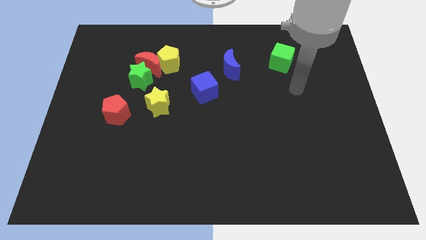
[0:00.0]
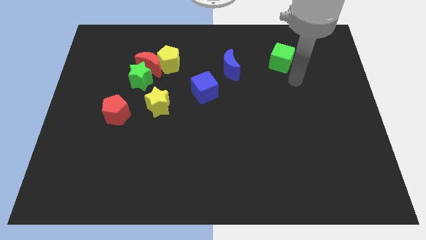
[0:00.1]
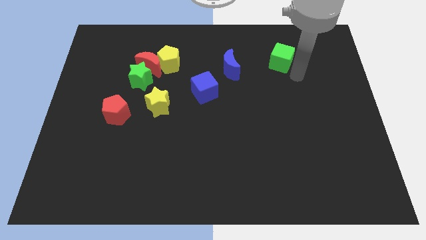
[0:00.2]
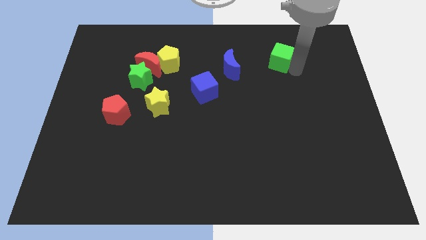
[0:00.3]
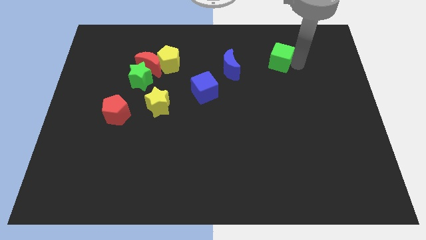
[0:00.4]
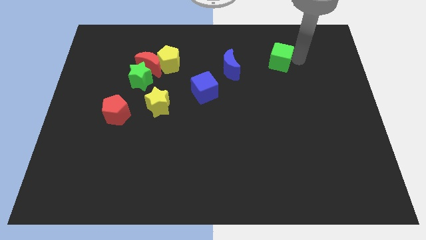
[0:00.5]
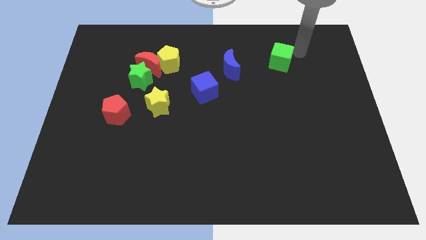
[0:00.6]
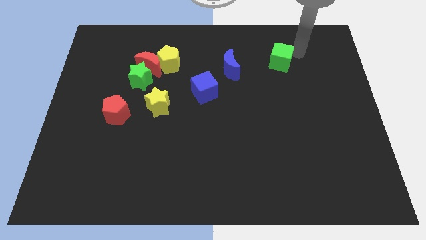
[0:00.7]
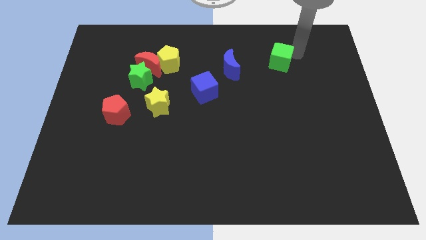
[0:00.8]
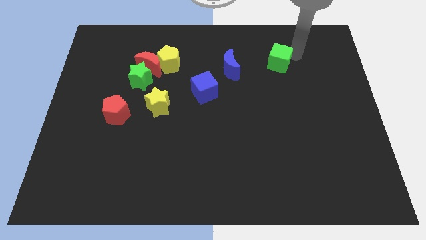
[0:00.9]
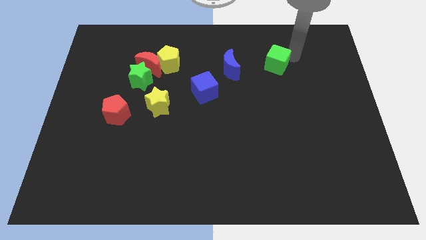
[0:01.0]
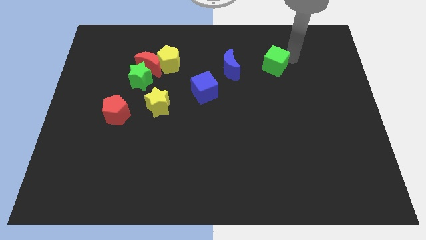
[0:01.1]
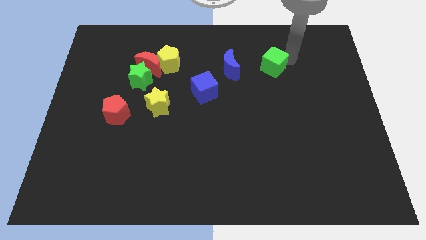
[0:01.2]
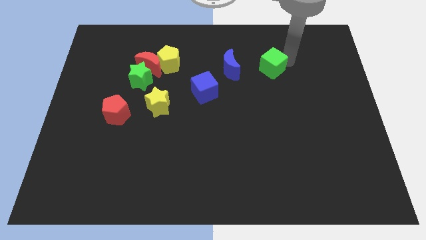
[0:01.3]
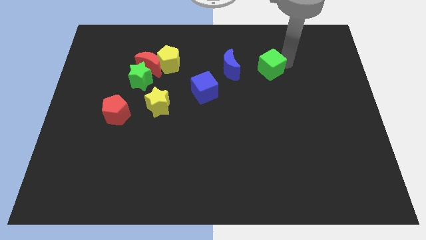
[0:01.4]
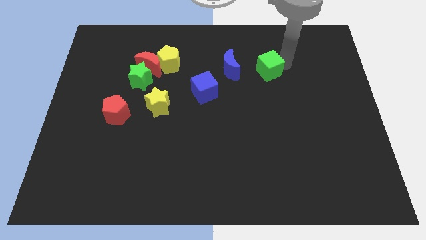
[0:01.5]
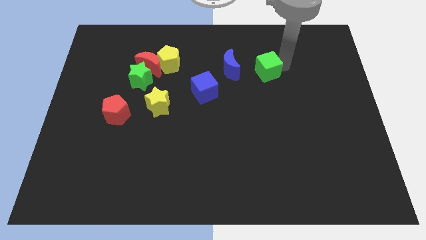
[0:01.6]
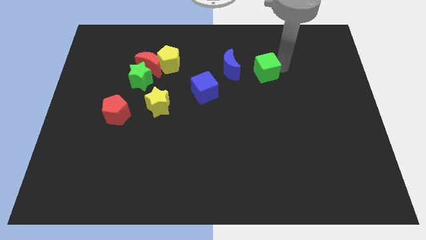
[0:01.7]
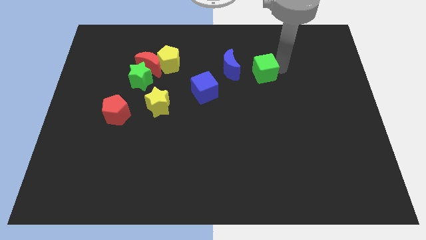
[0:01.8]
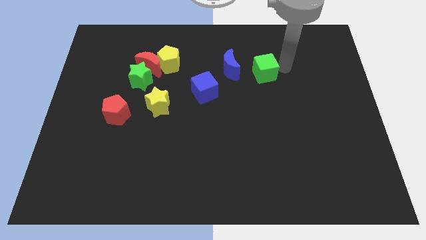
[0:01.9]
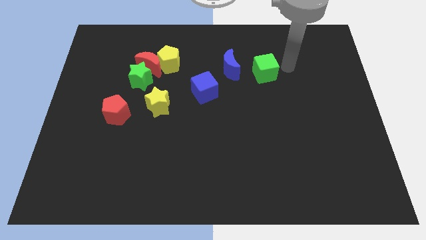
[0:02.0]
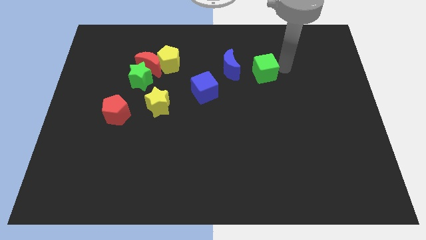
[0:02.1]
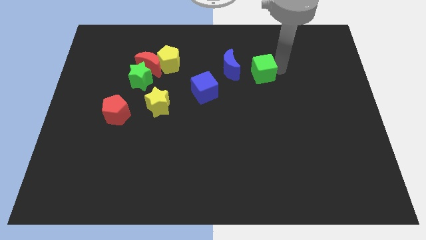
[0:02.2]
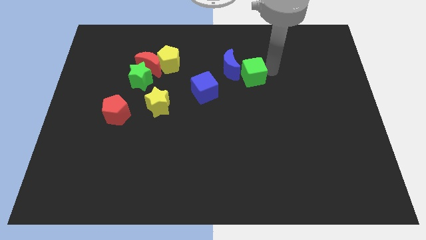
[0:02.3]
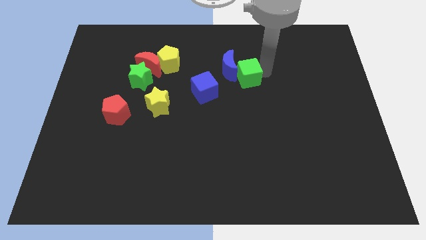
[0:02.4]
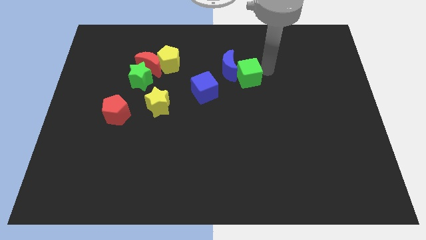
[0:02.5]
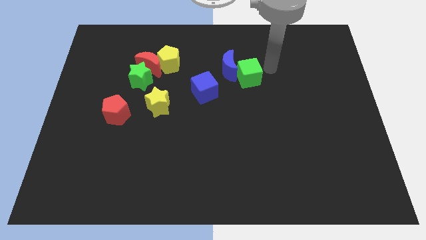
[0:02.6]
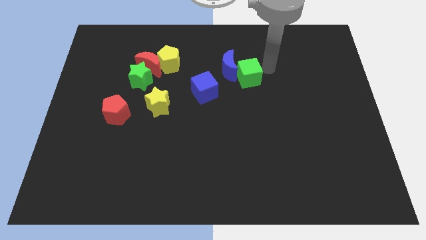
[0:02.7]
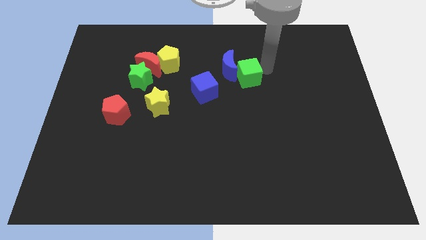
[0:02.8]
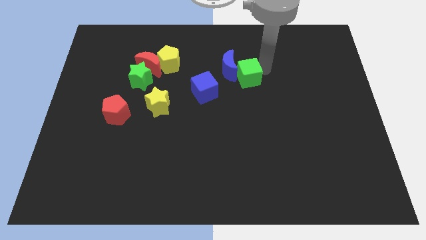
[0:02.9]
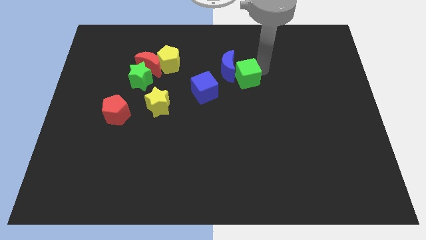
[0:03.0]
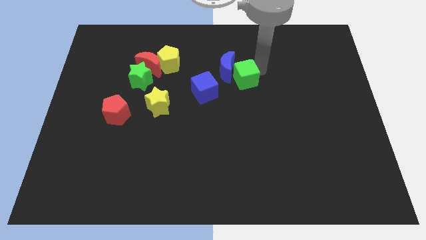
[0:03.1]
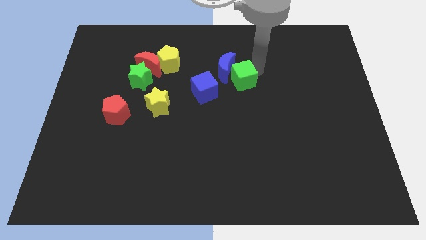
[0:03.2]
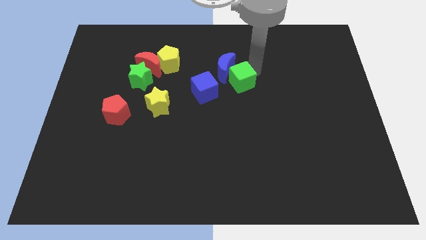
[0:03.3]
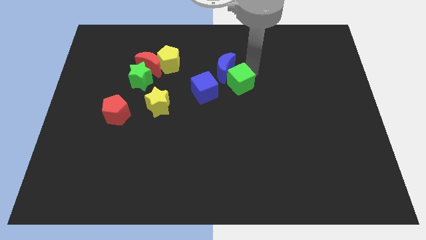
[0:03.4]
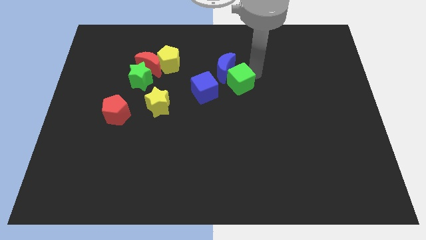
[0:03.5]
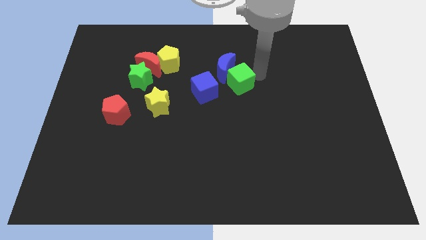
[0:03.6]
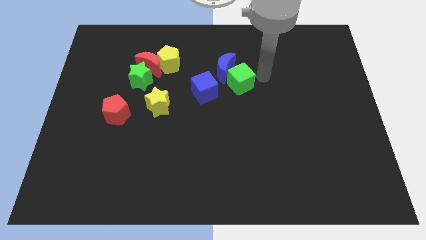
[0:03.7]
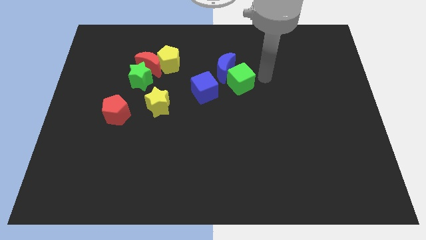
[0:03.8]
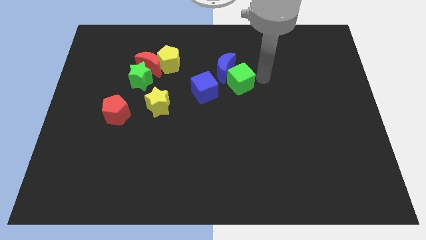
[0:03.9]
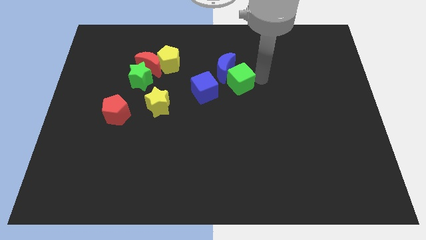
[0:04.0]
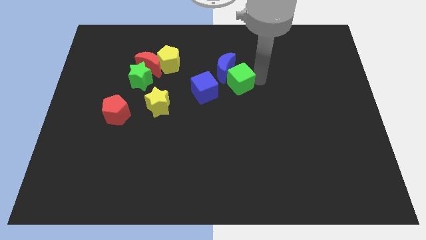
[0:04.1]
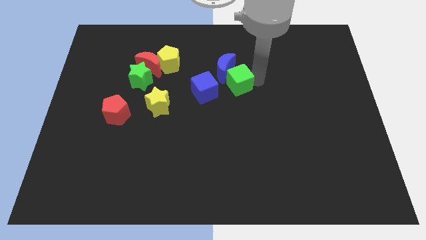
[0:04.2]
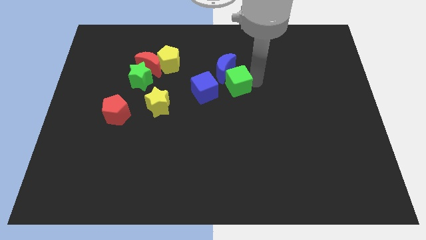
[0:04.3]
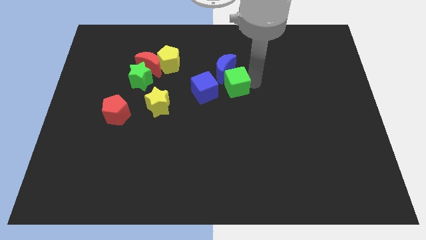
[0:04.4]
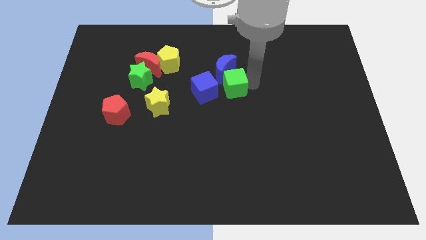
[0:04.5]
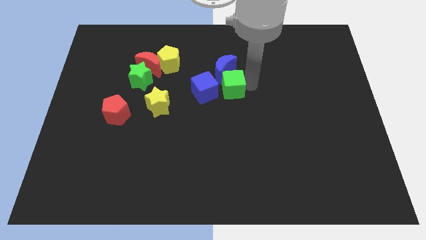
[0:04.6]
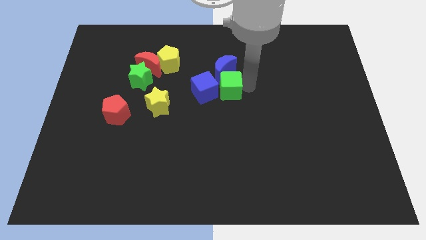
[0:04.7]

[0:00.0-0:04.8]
put the green cube towards the blue cube
